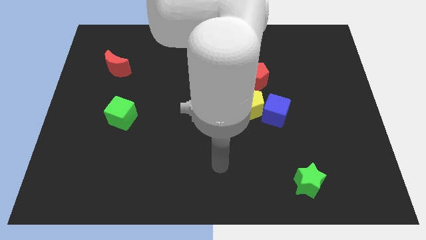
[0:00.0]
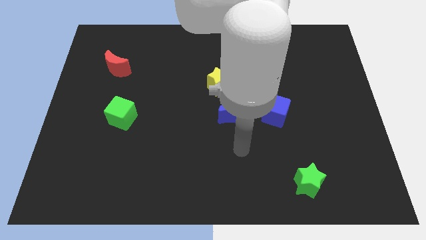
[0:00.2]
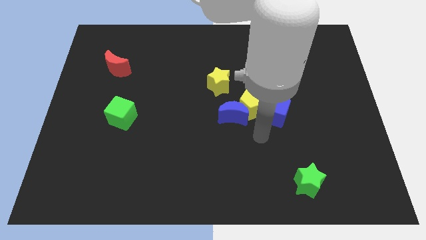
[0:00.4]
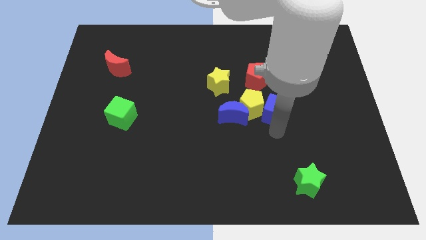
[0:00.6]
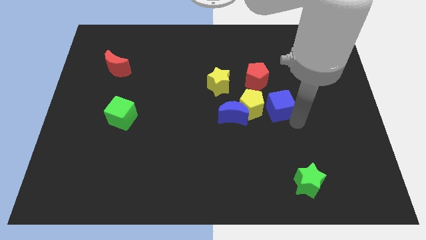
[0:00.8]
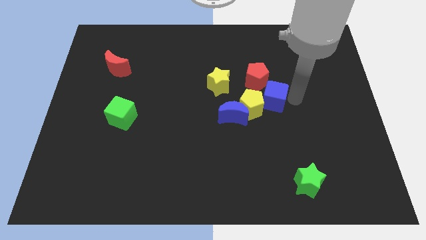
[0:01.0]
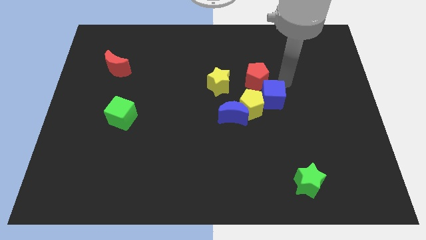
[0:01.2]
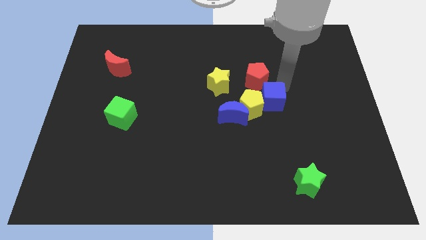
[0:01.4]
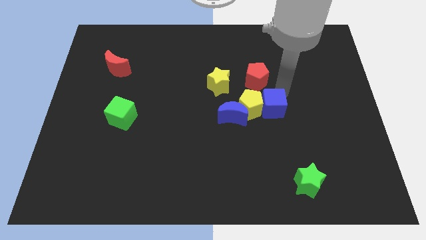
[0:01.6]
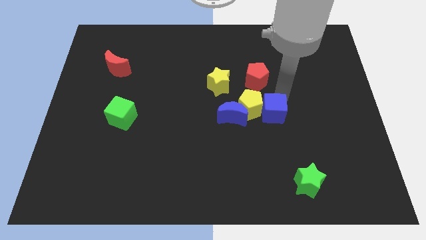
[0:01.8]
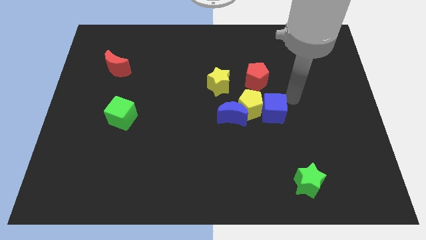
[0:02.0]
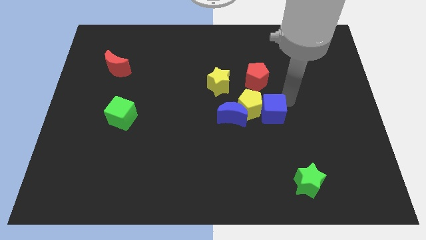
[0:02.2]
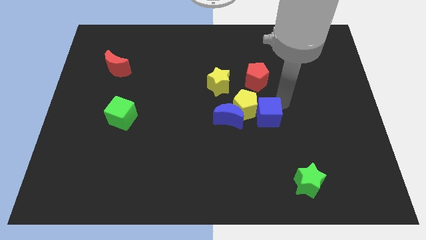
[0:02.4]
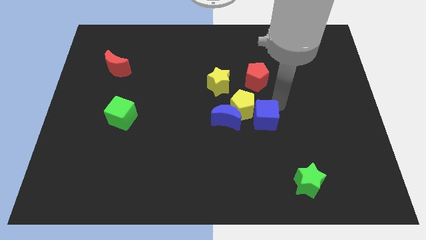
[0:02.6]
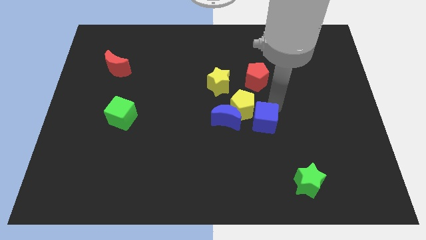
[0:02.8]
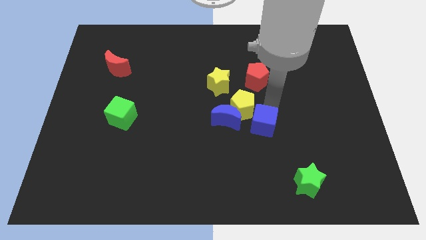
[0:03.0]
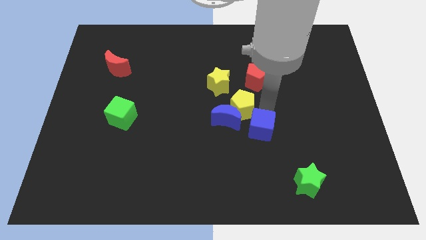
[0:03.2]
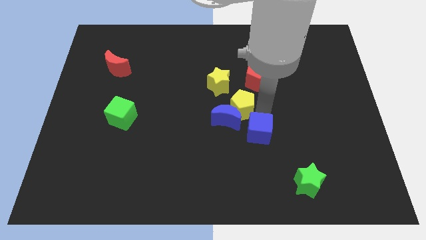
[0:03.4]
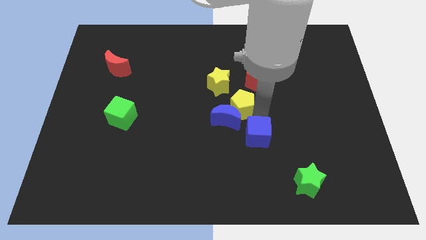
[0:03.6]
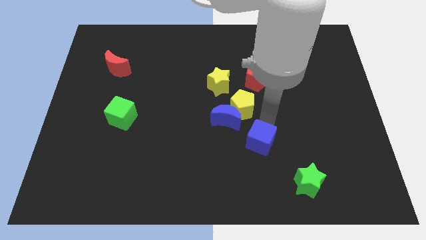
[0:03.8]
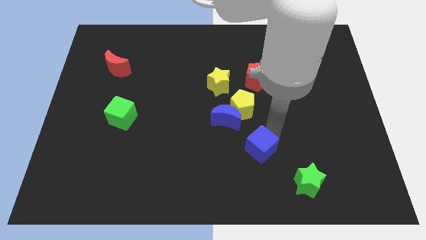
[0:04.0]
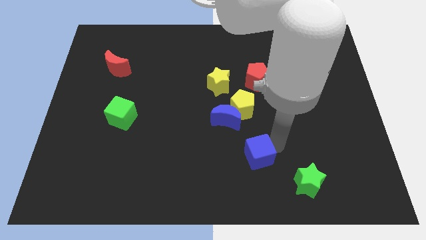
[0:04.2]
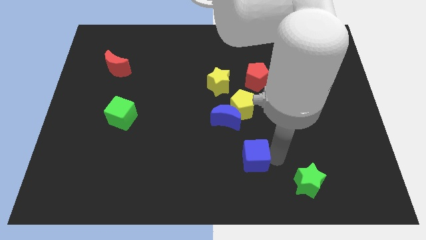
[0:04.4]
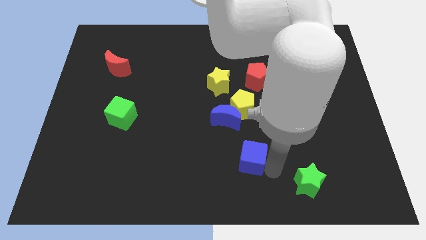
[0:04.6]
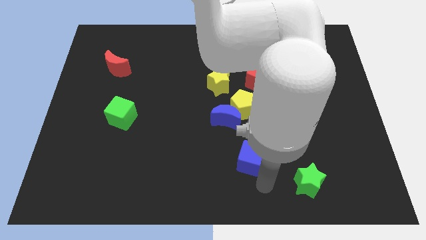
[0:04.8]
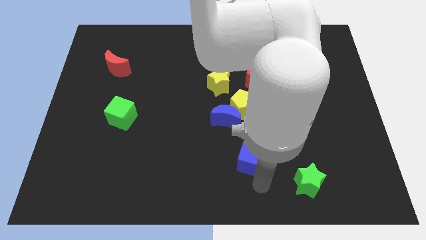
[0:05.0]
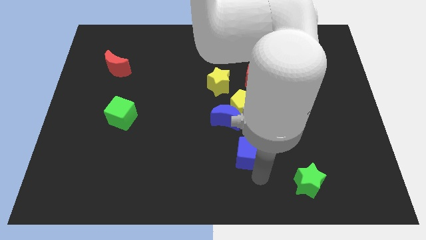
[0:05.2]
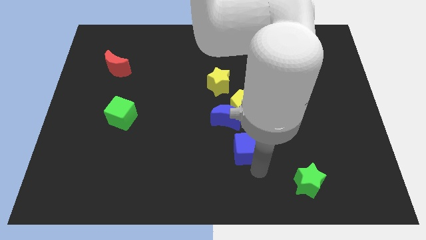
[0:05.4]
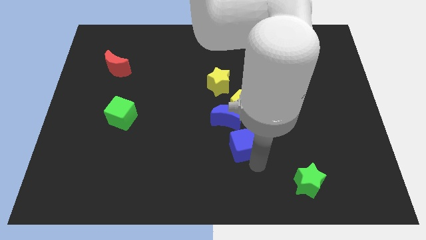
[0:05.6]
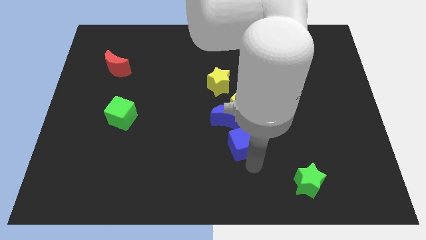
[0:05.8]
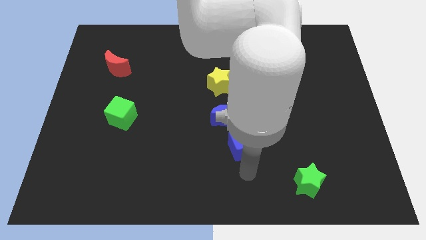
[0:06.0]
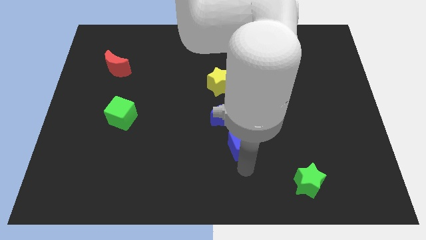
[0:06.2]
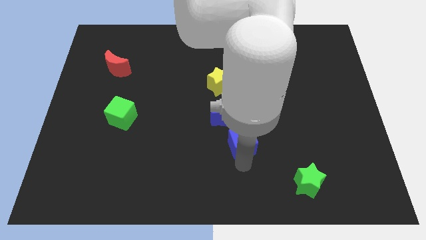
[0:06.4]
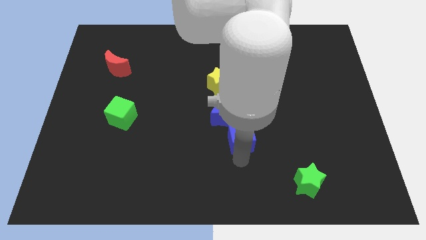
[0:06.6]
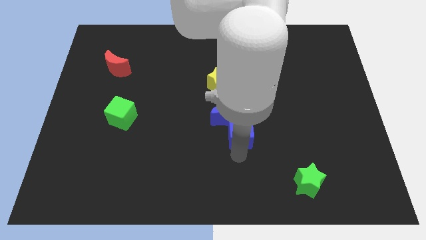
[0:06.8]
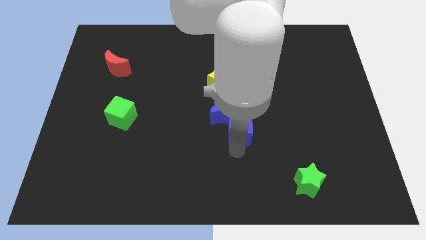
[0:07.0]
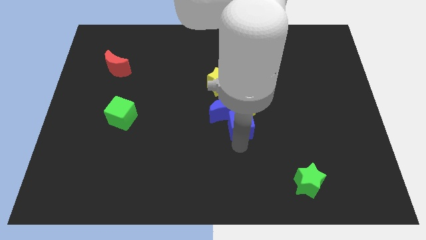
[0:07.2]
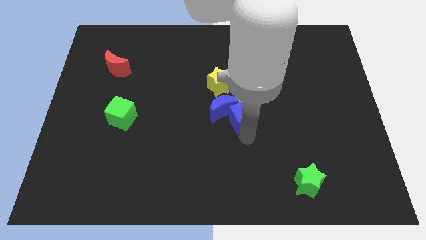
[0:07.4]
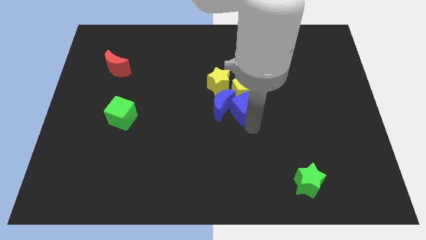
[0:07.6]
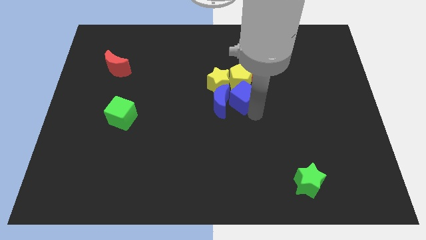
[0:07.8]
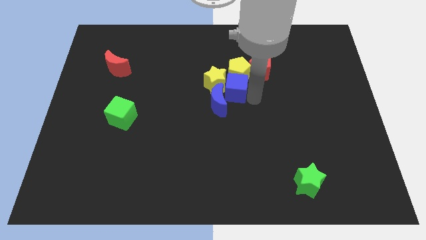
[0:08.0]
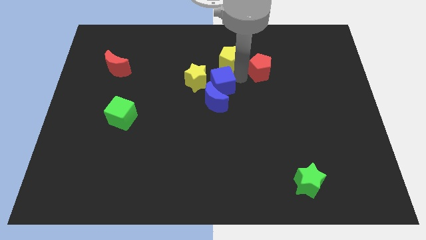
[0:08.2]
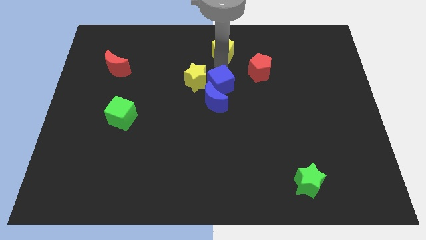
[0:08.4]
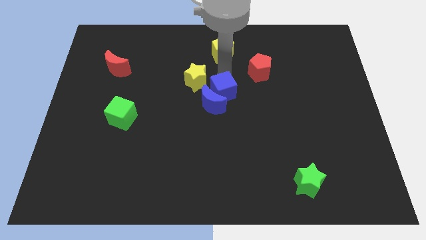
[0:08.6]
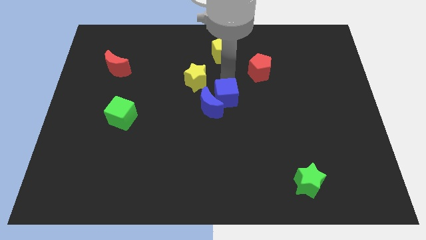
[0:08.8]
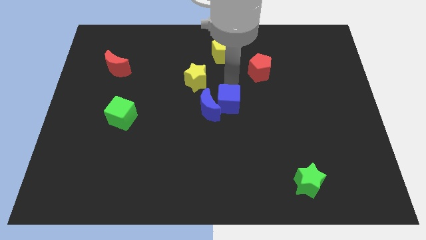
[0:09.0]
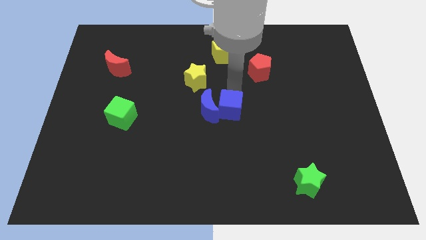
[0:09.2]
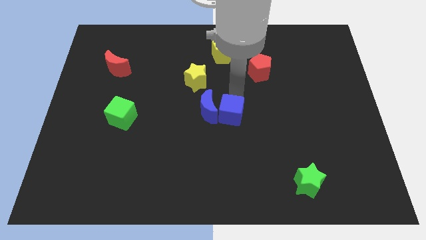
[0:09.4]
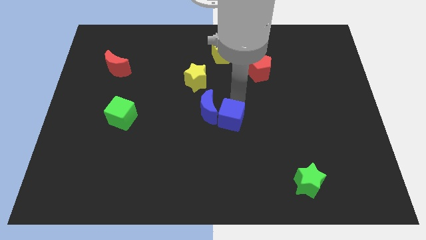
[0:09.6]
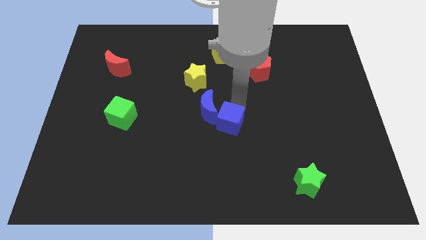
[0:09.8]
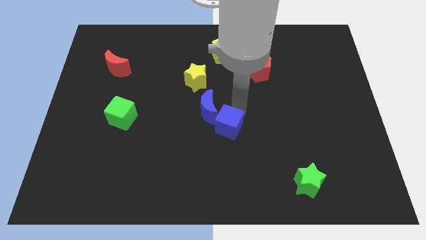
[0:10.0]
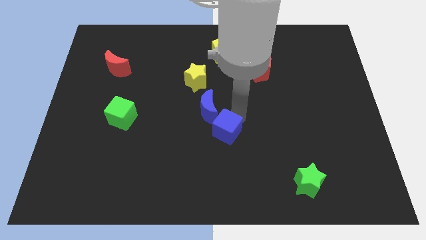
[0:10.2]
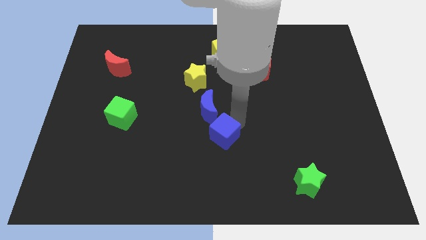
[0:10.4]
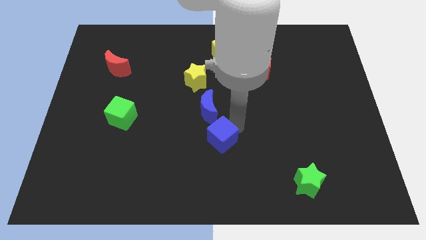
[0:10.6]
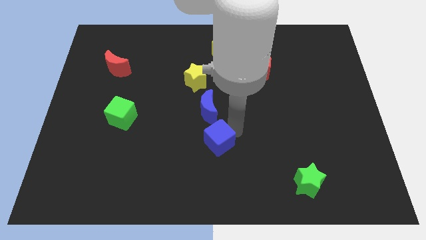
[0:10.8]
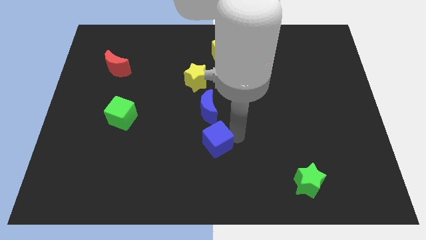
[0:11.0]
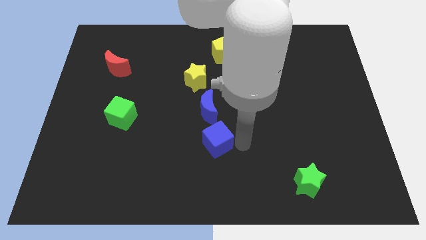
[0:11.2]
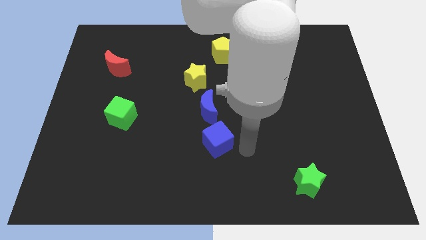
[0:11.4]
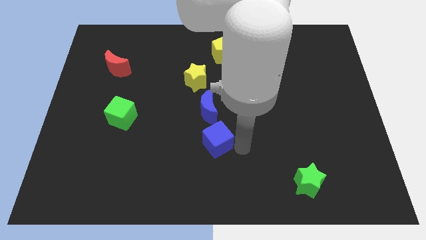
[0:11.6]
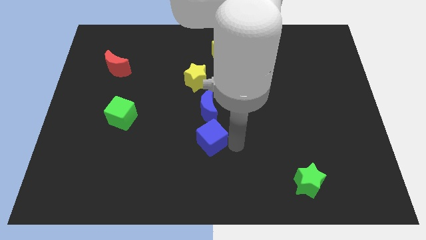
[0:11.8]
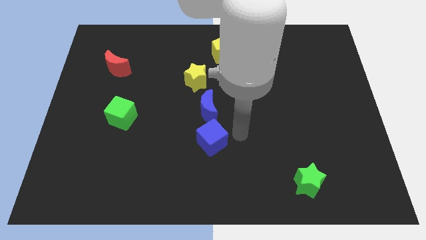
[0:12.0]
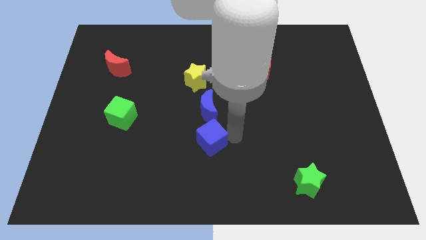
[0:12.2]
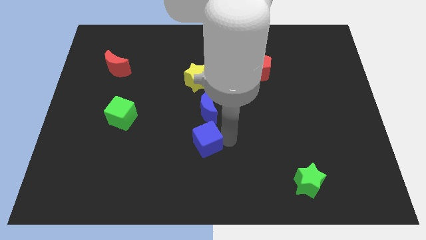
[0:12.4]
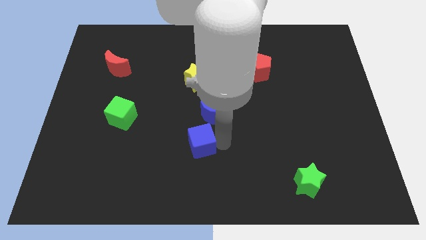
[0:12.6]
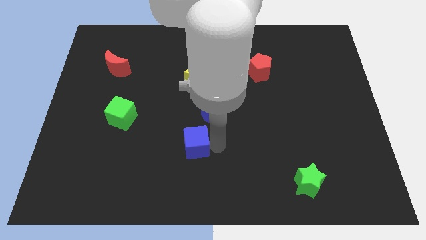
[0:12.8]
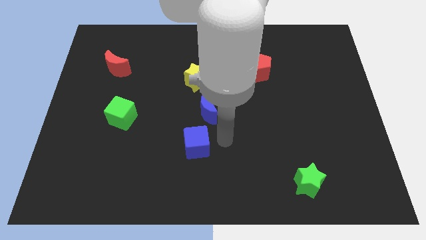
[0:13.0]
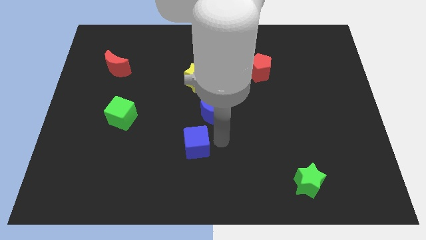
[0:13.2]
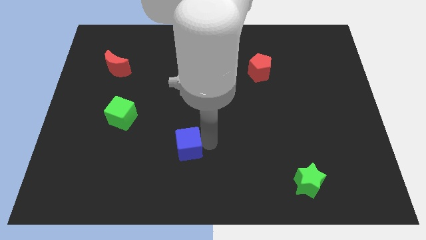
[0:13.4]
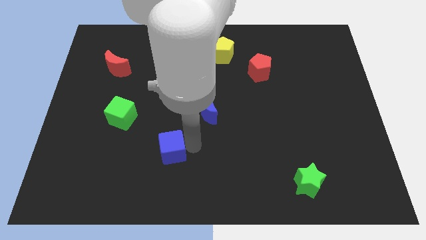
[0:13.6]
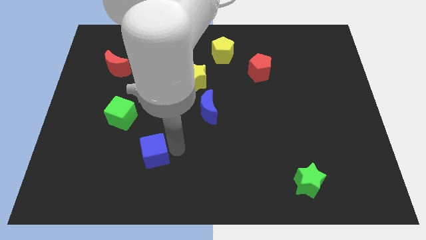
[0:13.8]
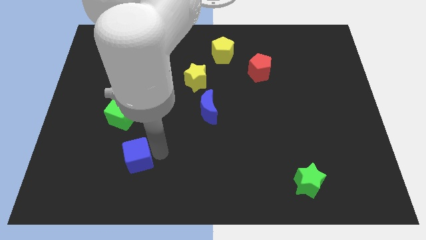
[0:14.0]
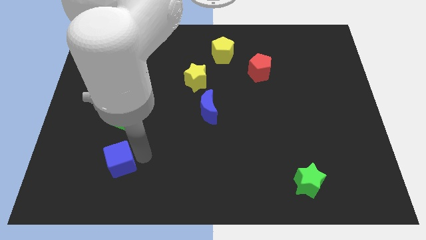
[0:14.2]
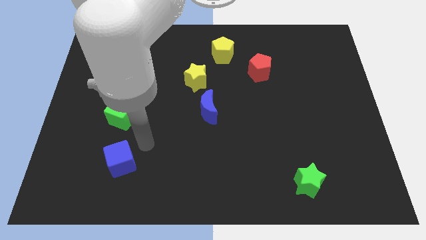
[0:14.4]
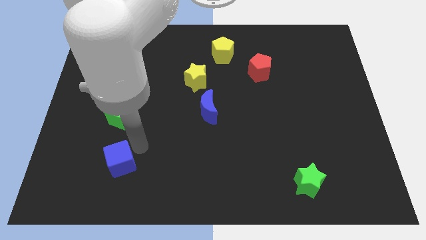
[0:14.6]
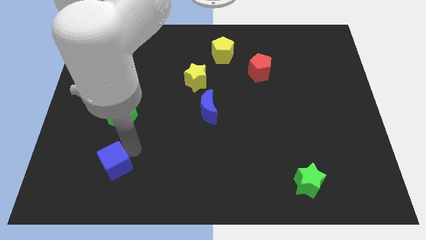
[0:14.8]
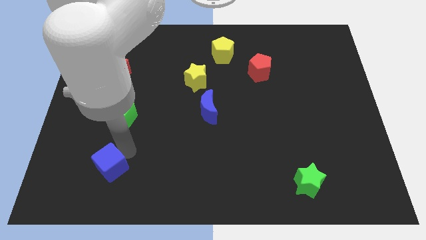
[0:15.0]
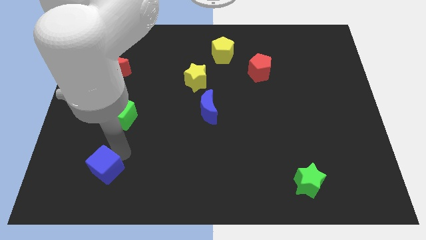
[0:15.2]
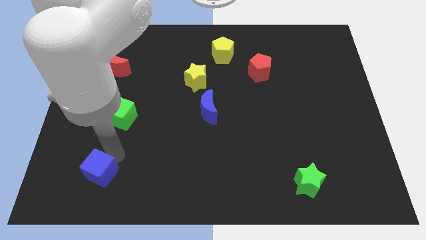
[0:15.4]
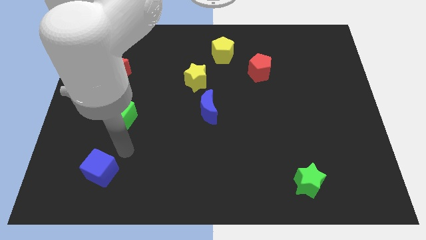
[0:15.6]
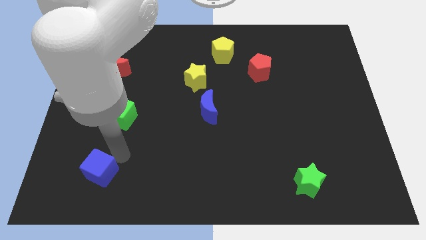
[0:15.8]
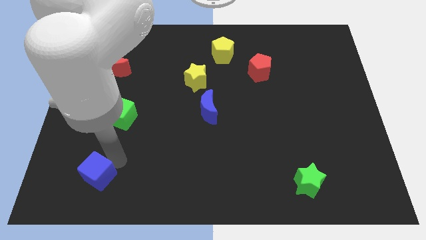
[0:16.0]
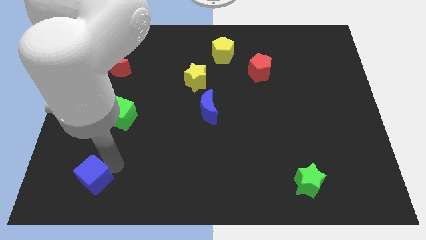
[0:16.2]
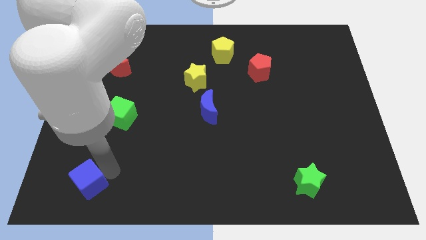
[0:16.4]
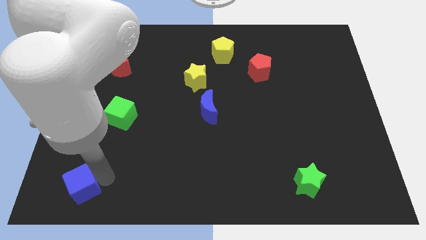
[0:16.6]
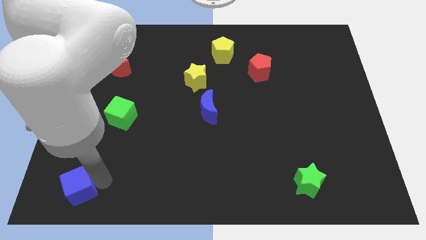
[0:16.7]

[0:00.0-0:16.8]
put the blue cube to the bottom left corner
